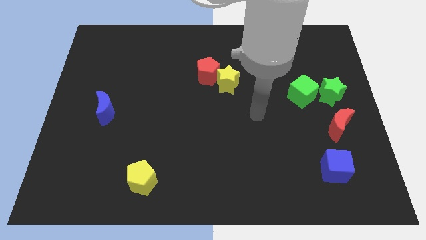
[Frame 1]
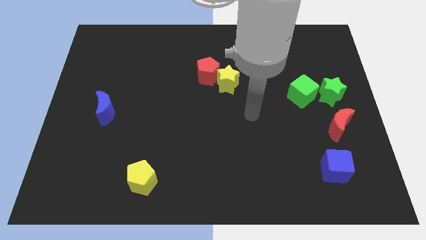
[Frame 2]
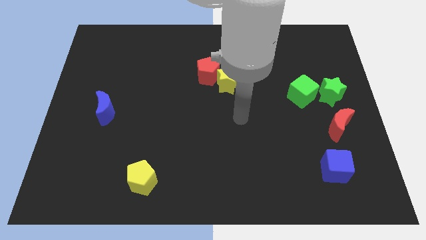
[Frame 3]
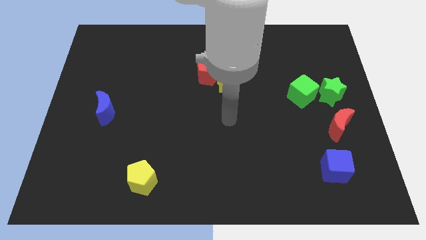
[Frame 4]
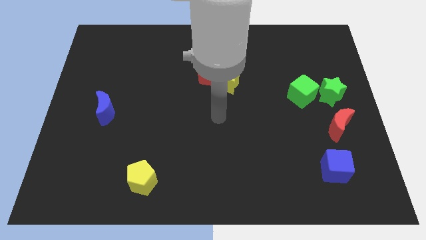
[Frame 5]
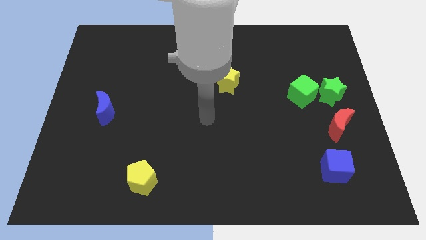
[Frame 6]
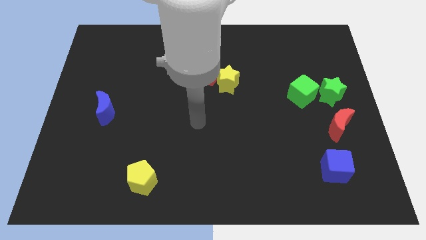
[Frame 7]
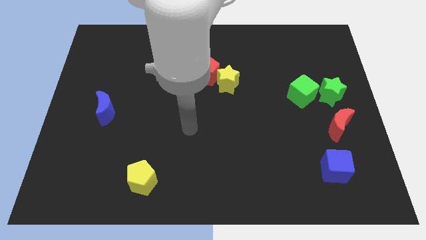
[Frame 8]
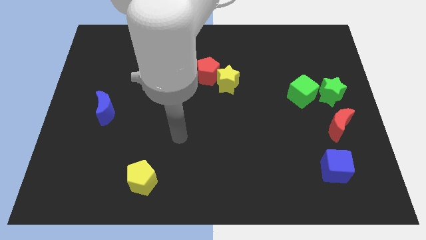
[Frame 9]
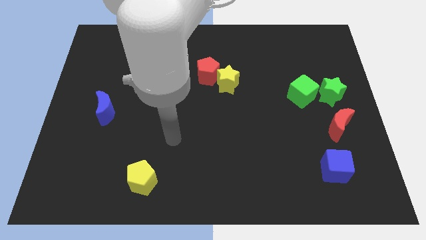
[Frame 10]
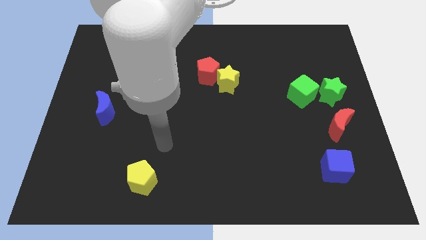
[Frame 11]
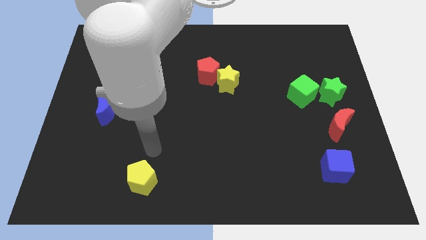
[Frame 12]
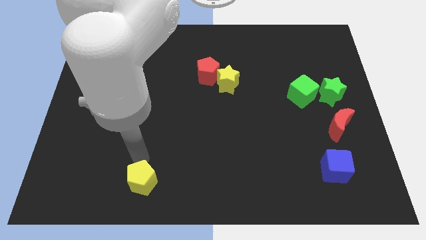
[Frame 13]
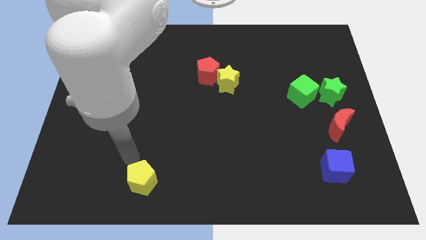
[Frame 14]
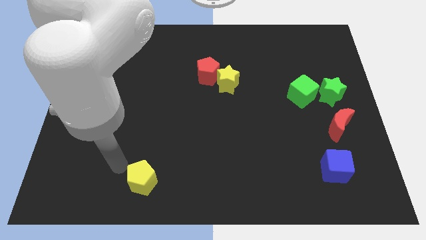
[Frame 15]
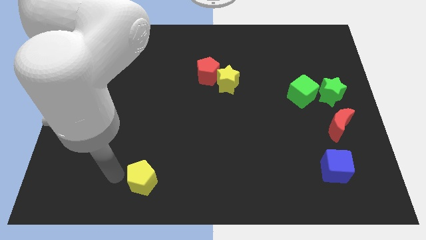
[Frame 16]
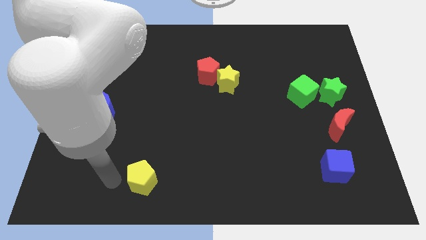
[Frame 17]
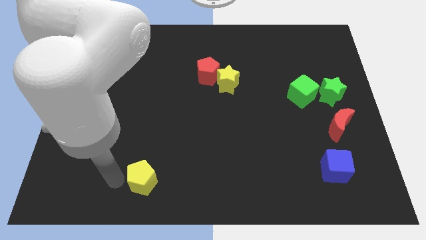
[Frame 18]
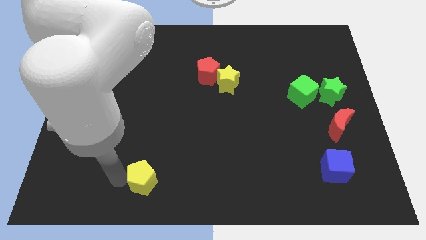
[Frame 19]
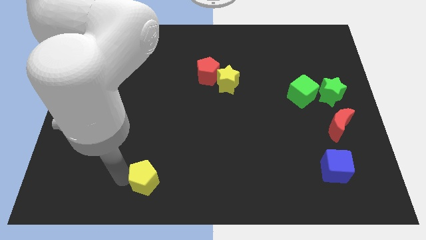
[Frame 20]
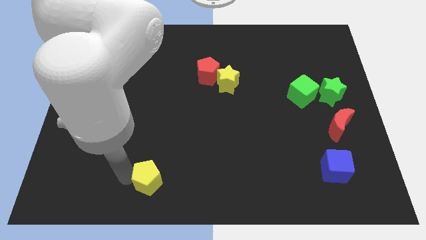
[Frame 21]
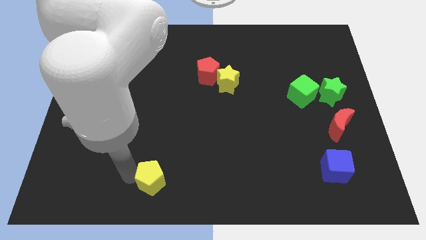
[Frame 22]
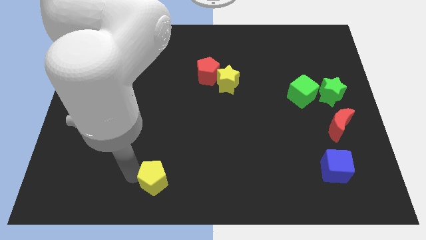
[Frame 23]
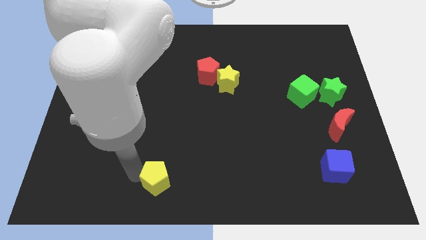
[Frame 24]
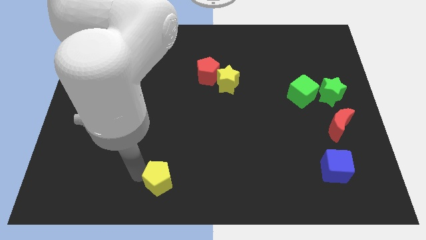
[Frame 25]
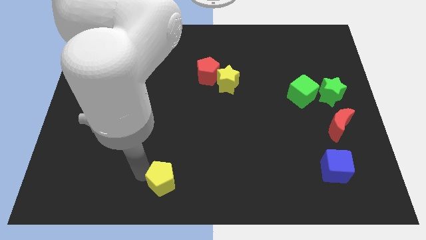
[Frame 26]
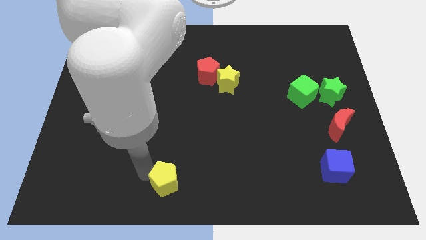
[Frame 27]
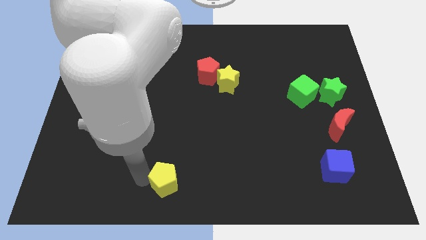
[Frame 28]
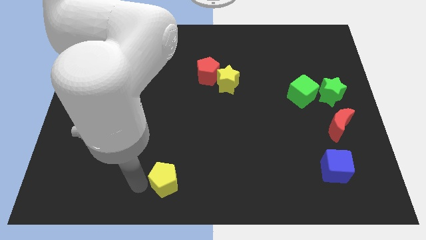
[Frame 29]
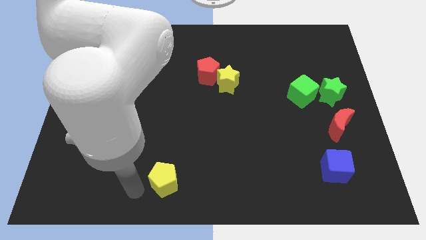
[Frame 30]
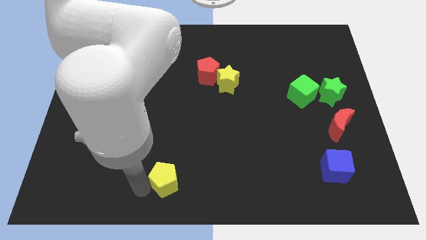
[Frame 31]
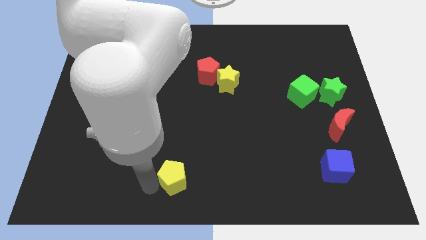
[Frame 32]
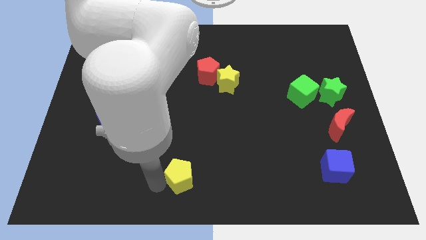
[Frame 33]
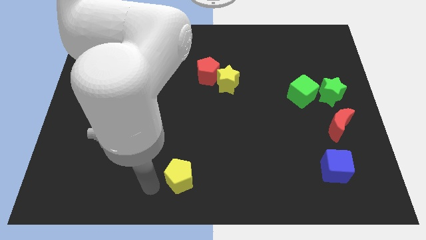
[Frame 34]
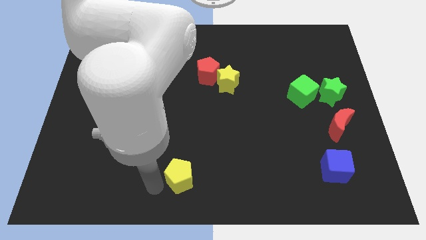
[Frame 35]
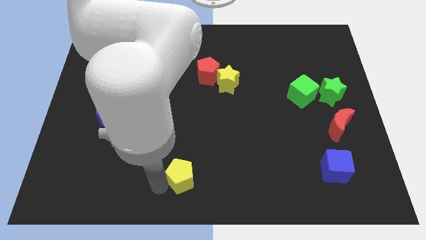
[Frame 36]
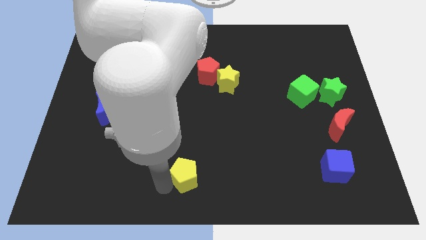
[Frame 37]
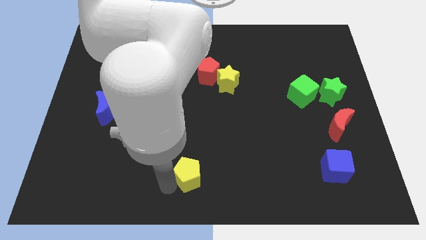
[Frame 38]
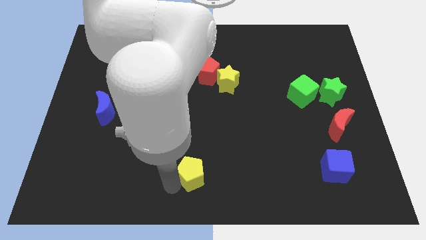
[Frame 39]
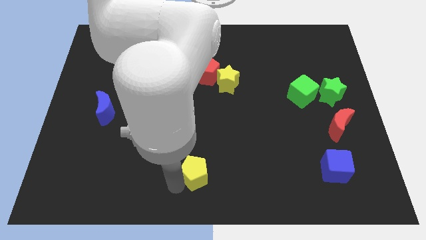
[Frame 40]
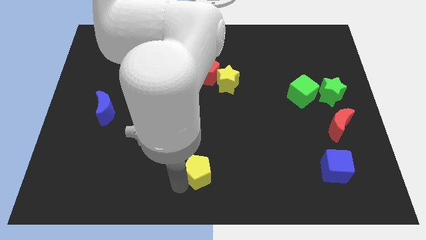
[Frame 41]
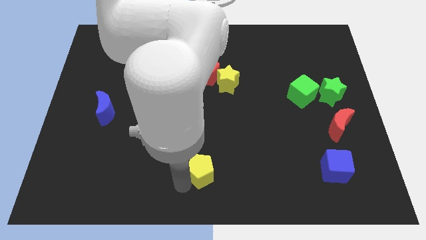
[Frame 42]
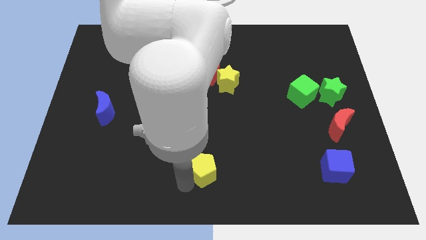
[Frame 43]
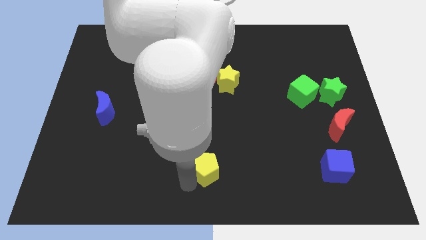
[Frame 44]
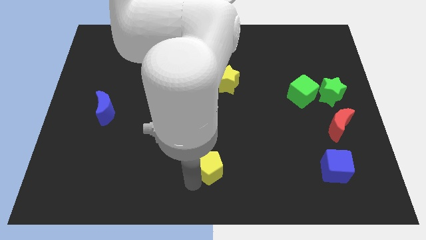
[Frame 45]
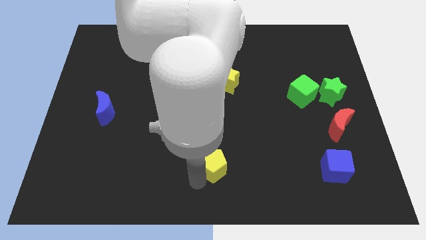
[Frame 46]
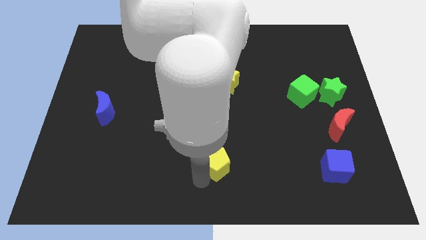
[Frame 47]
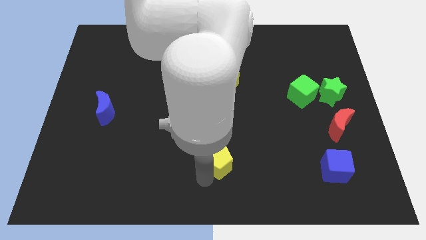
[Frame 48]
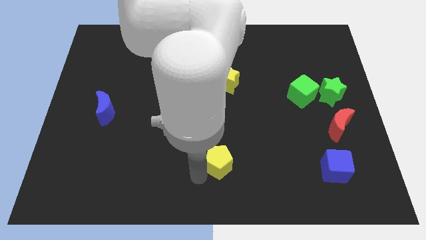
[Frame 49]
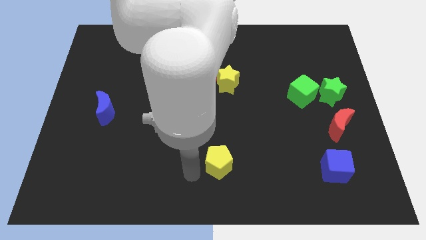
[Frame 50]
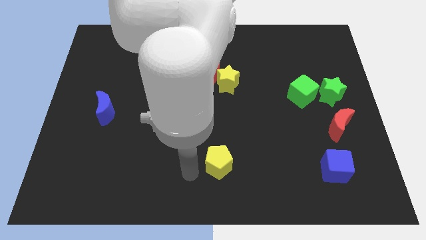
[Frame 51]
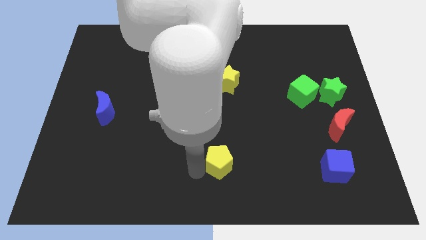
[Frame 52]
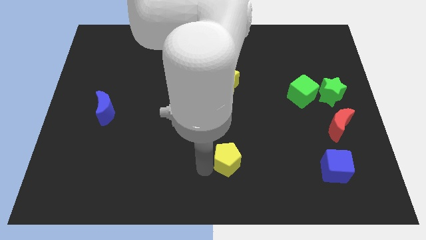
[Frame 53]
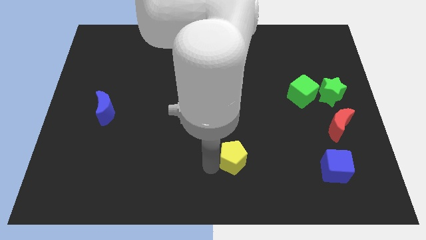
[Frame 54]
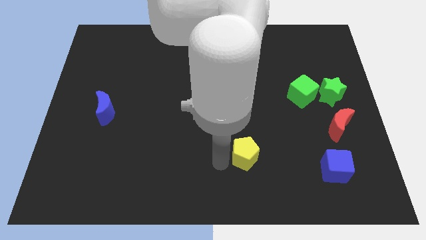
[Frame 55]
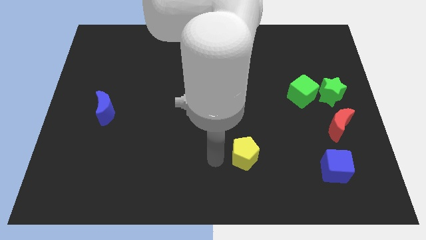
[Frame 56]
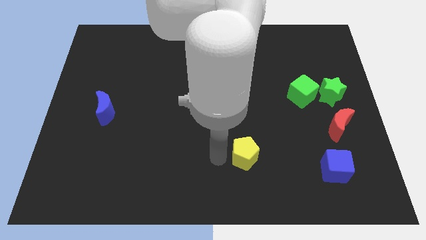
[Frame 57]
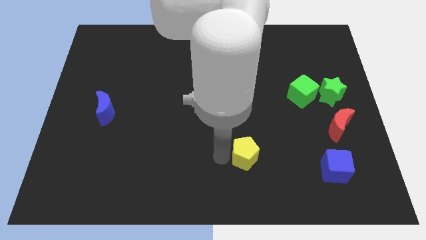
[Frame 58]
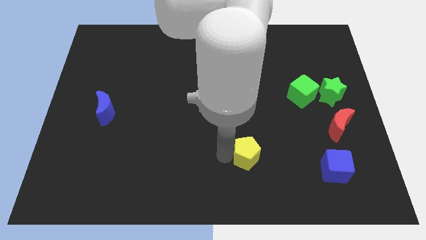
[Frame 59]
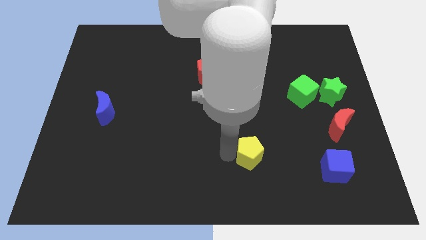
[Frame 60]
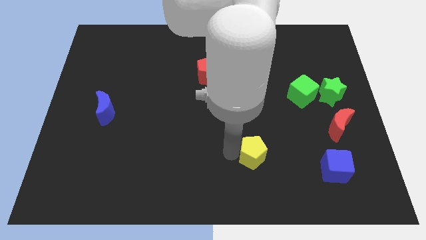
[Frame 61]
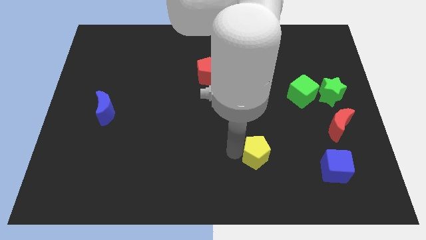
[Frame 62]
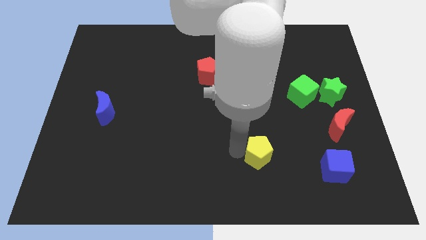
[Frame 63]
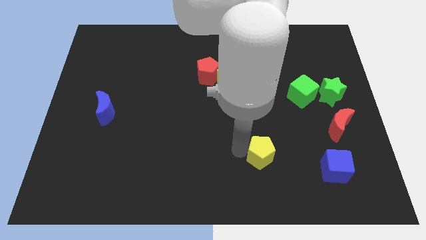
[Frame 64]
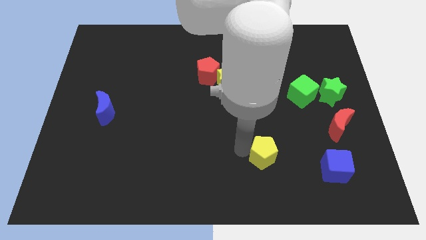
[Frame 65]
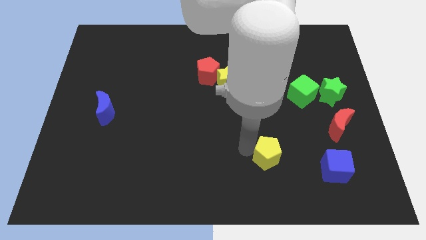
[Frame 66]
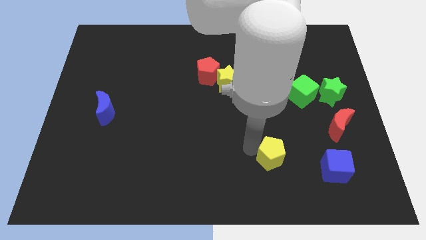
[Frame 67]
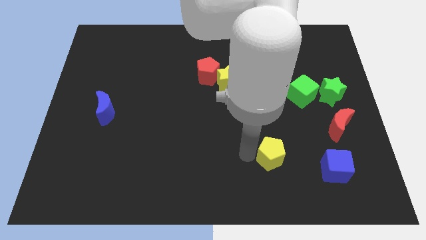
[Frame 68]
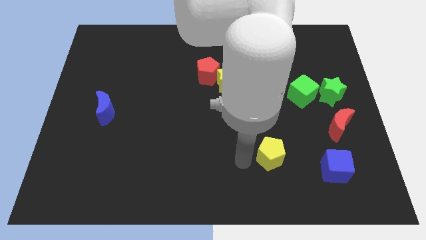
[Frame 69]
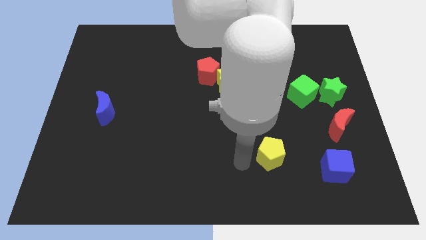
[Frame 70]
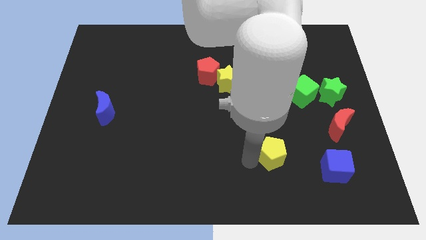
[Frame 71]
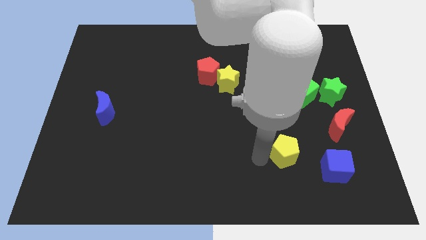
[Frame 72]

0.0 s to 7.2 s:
push the yellow pentagon to the top left side of the blue cube
